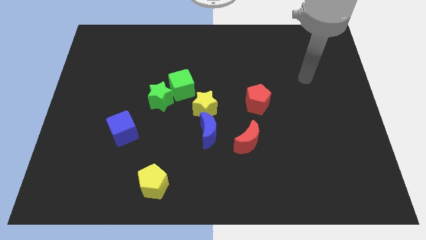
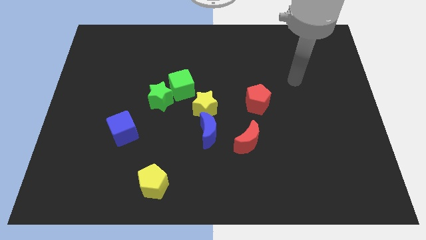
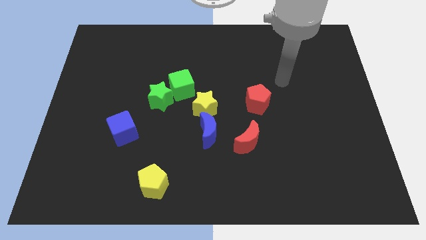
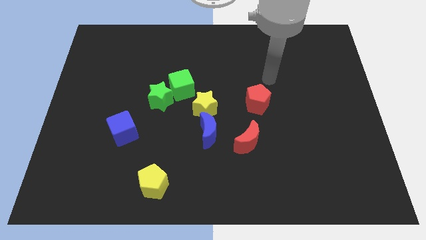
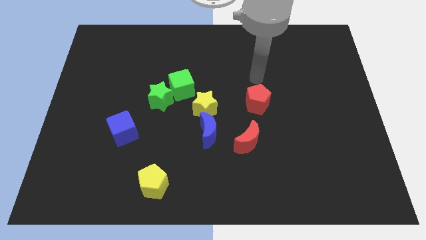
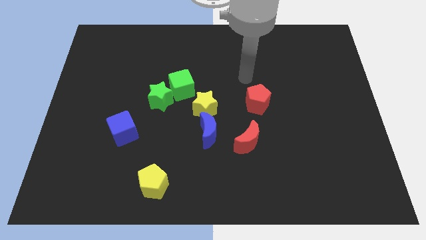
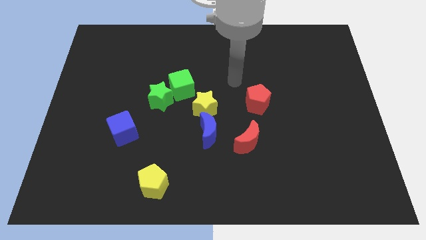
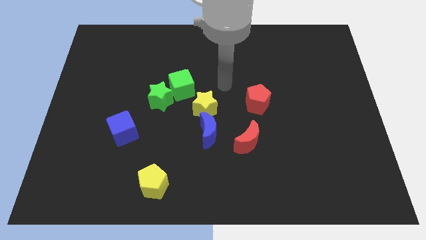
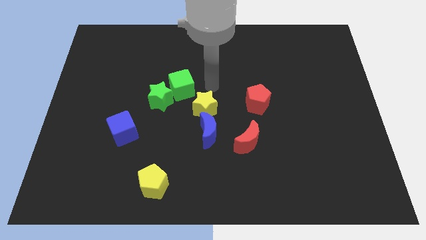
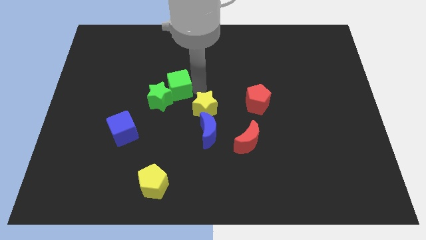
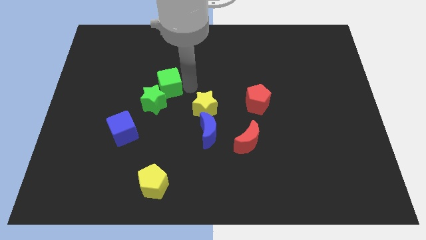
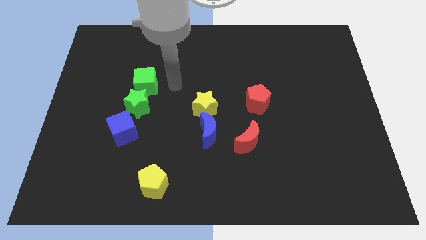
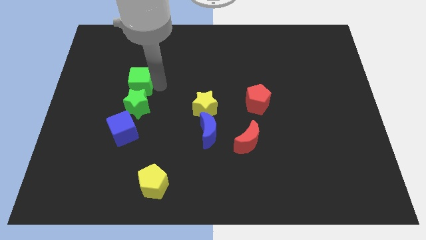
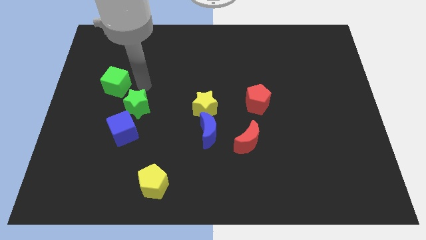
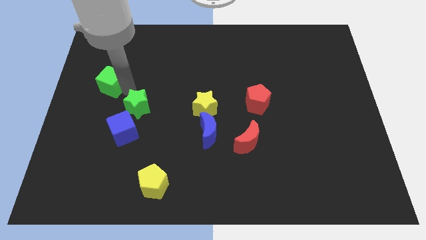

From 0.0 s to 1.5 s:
separate the green star from the green cube

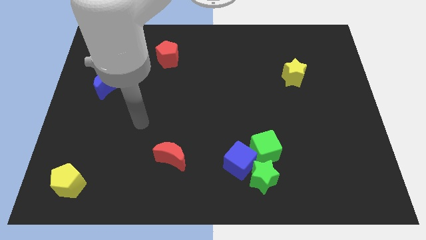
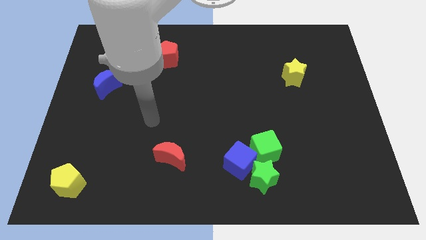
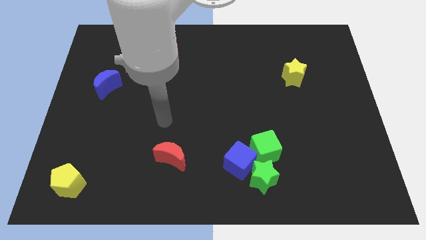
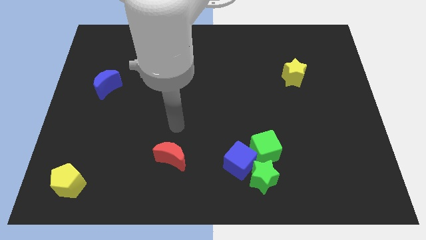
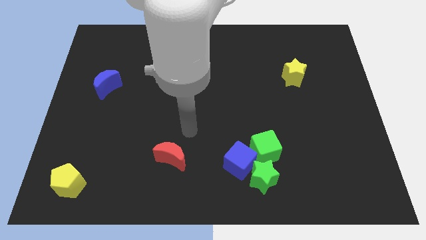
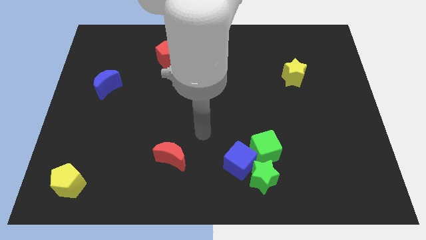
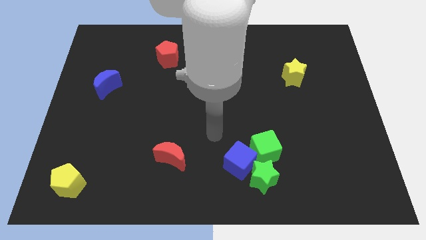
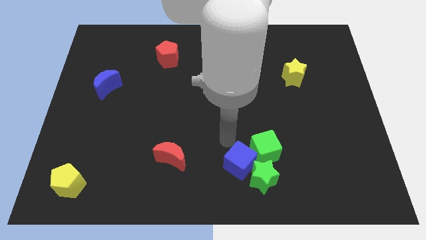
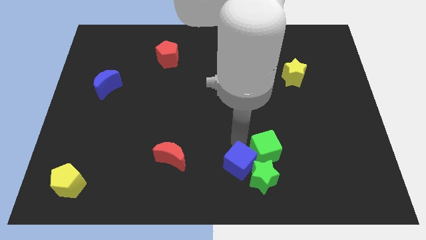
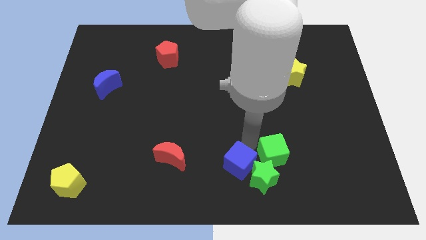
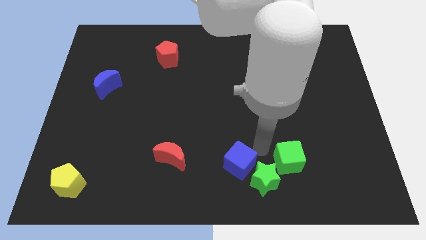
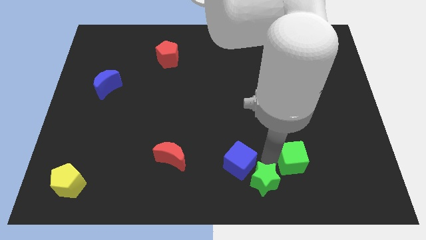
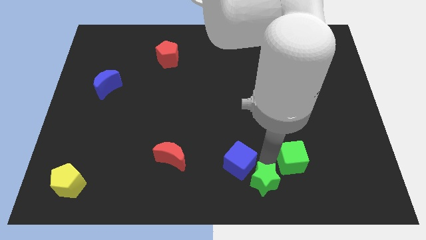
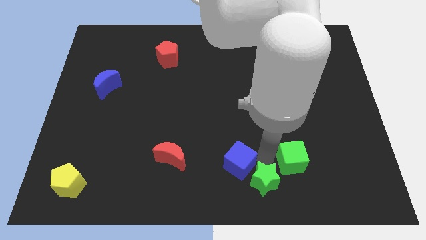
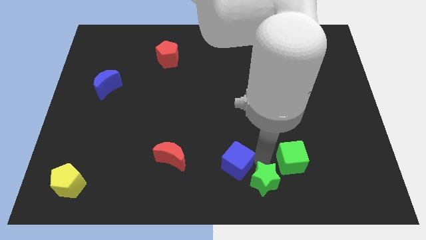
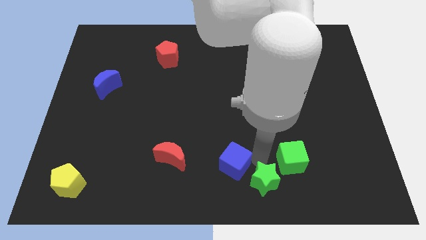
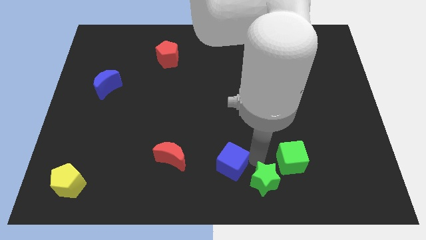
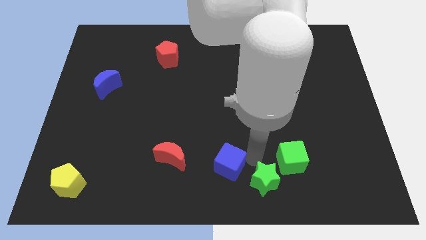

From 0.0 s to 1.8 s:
move the blue cube away from the green star and green cube

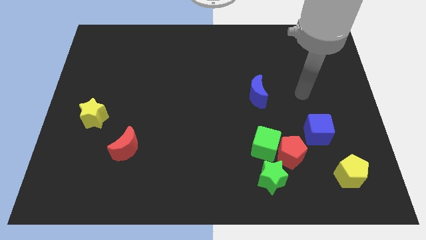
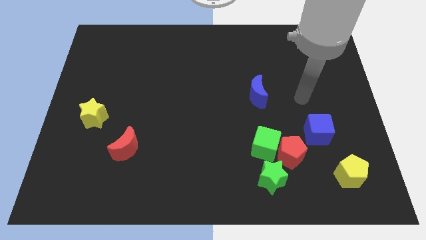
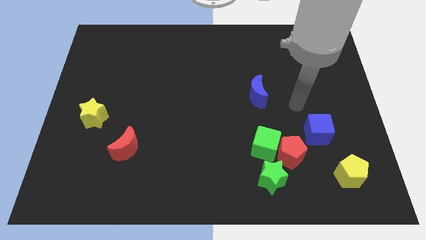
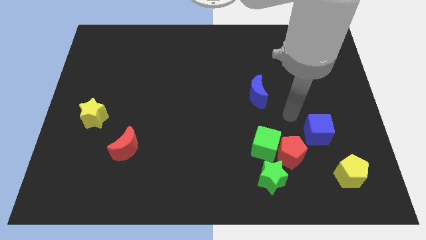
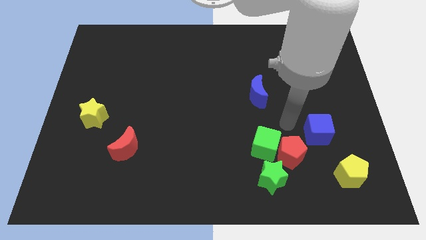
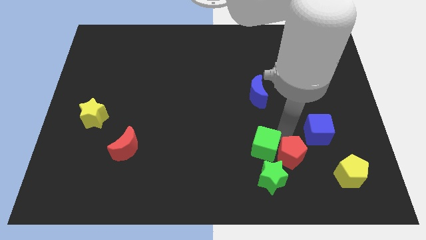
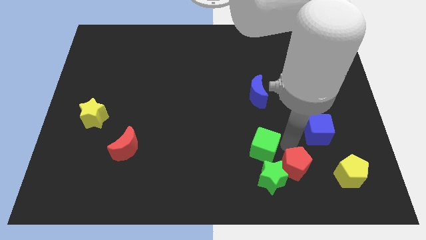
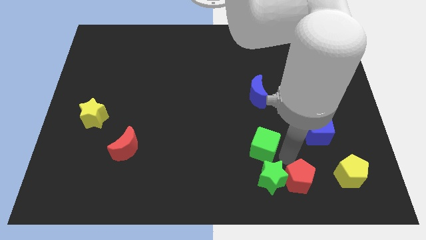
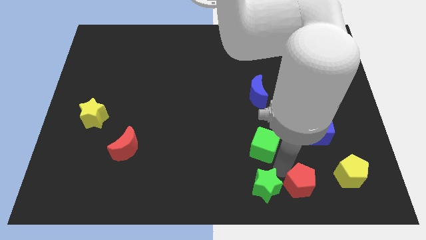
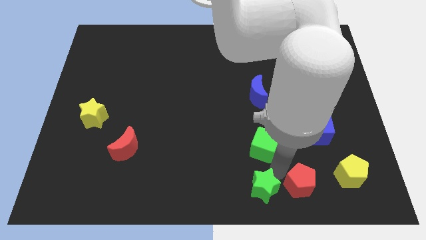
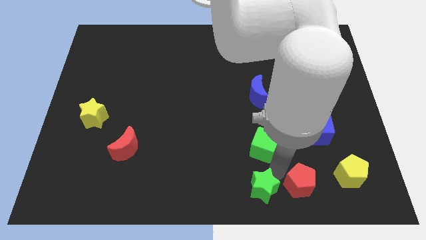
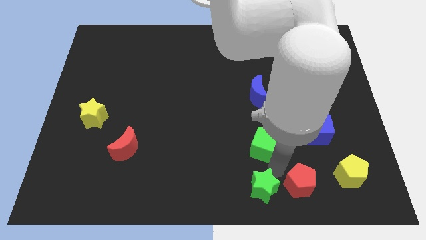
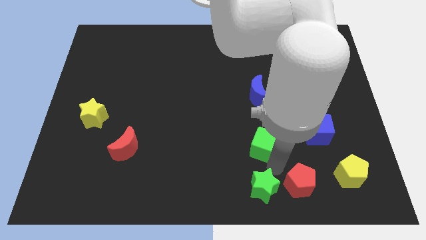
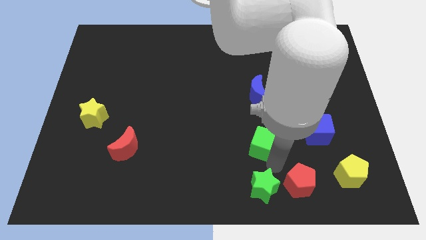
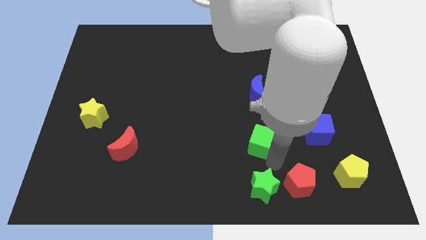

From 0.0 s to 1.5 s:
pull the green cube apart from the red pentagon and green star

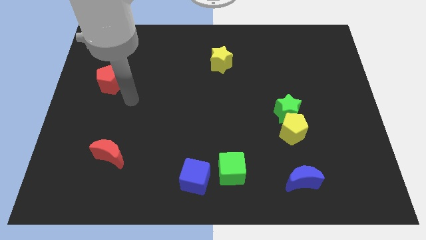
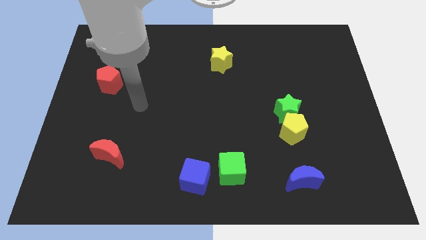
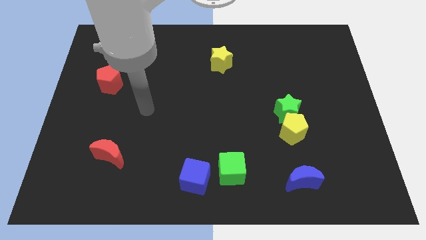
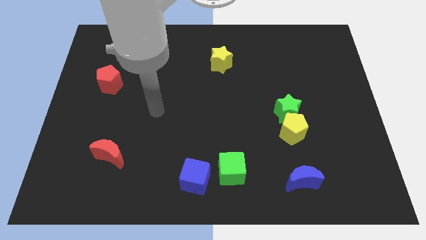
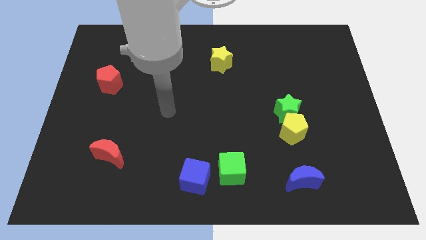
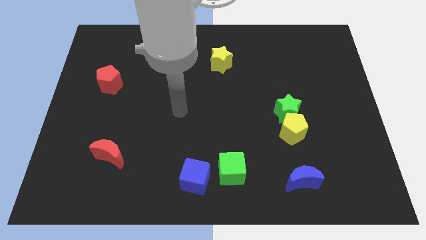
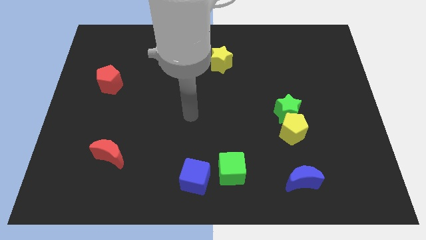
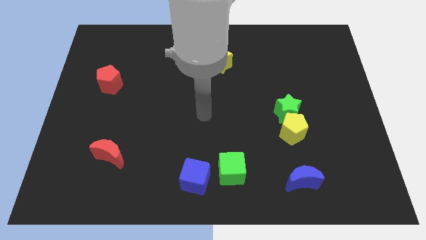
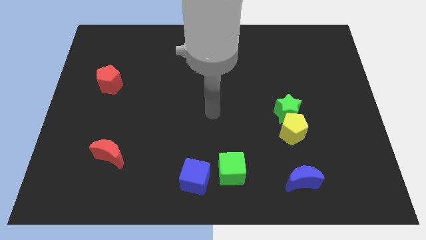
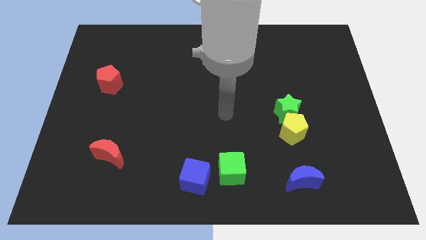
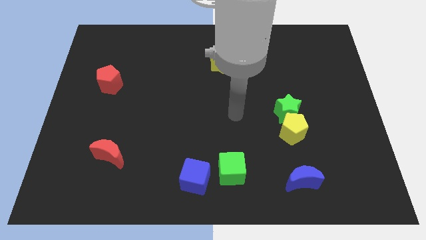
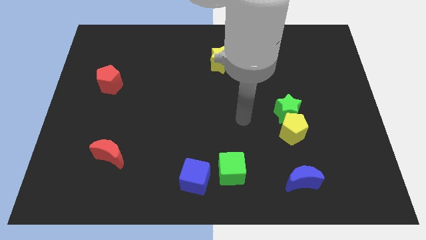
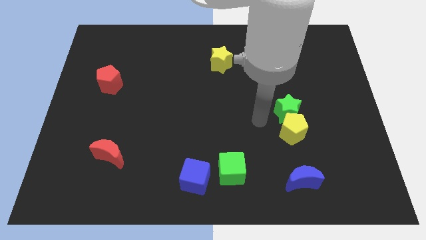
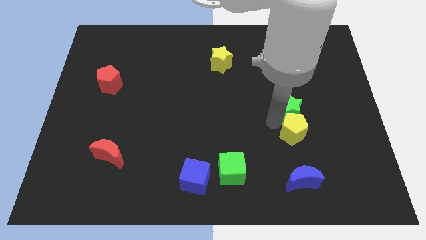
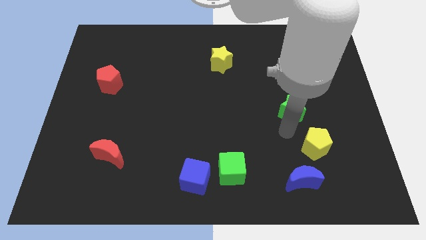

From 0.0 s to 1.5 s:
pull the green star apart from the yellow pentagon

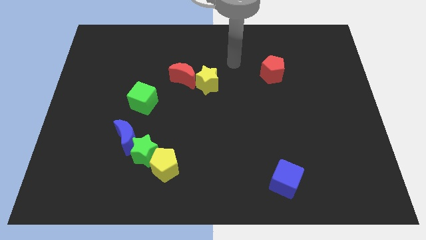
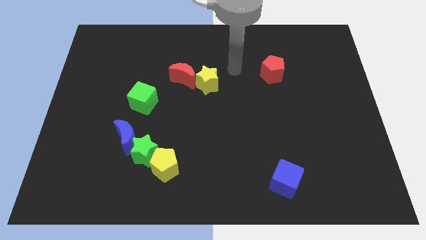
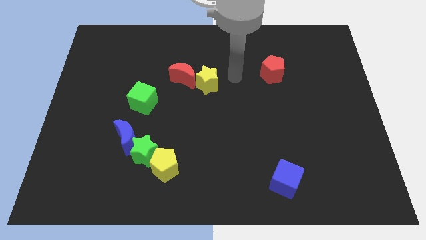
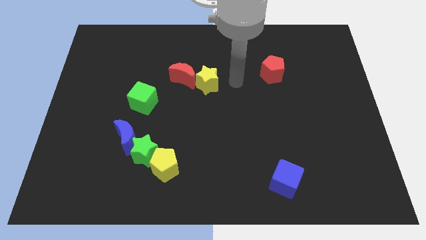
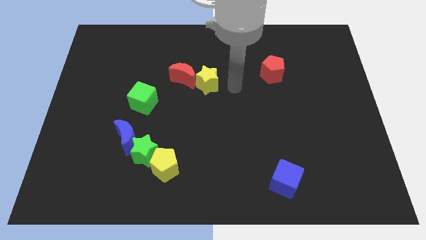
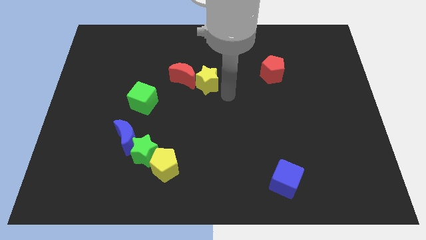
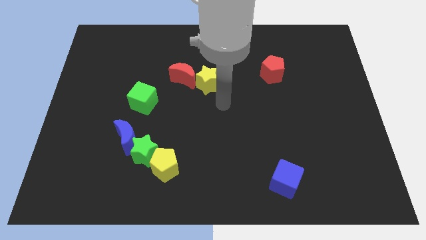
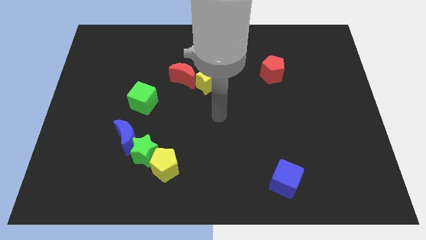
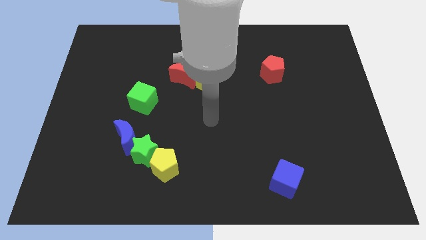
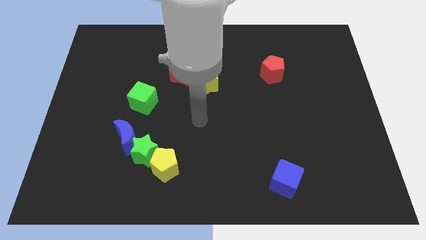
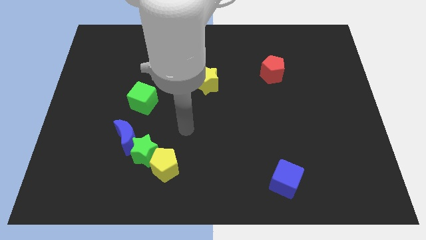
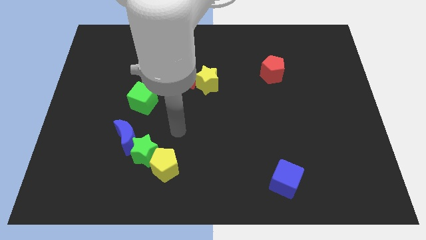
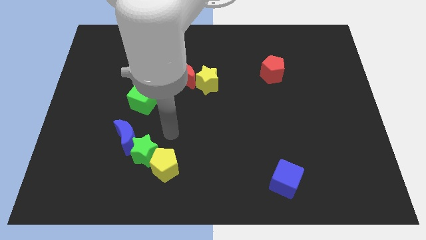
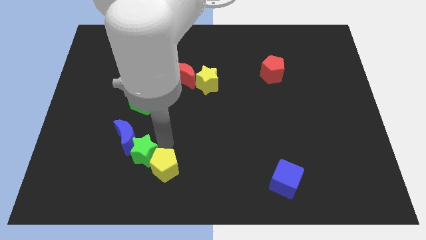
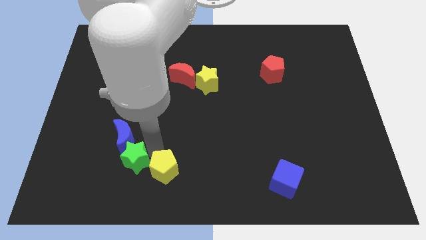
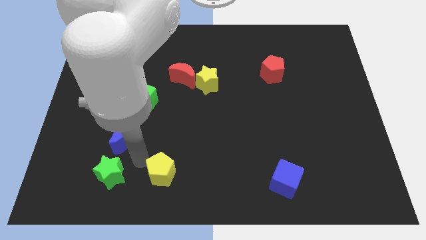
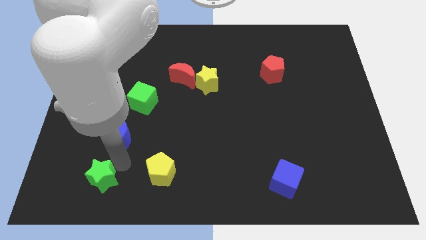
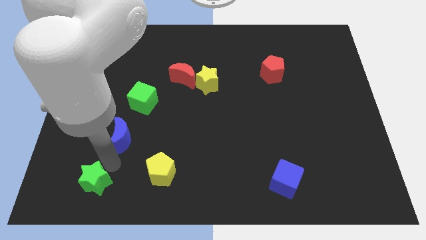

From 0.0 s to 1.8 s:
move the blue moon away from the green star

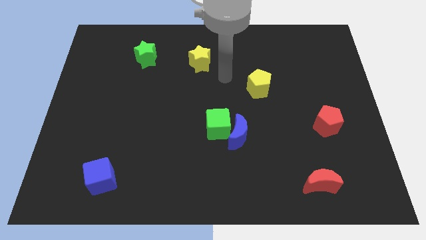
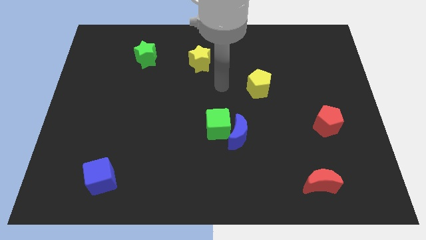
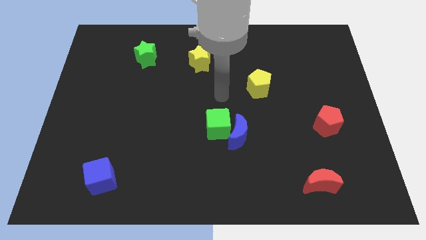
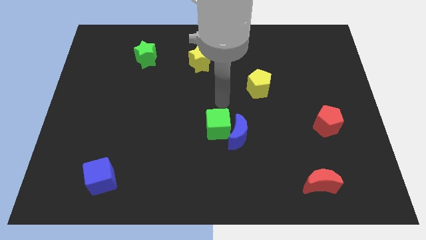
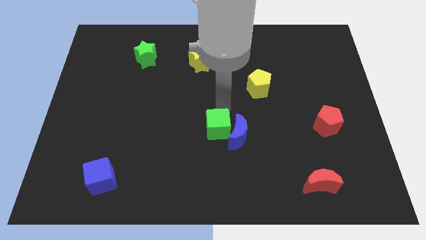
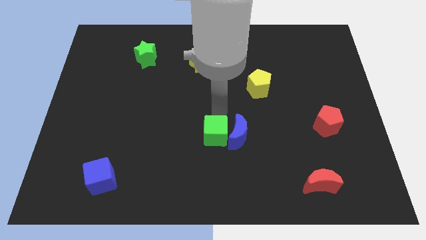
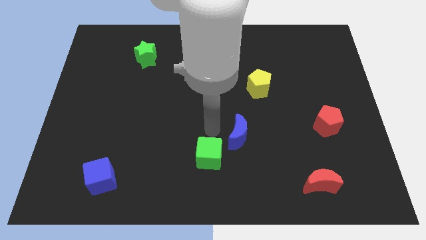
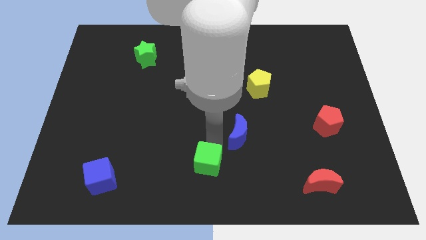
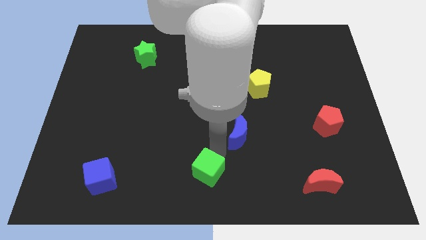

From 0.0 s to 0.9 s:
separate the blue moon from the green cube

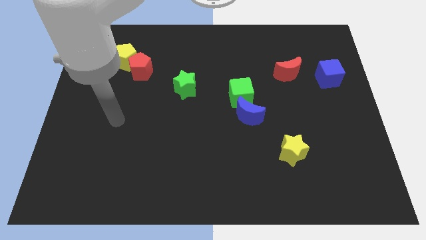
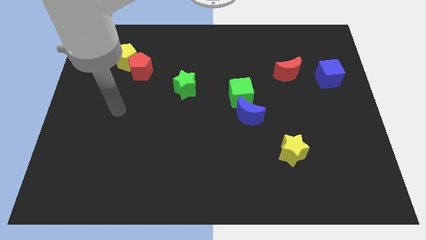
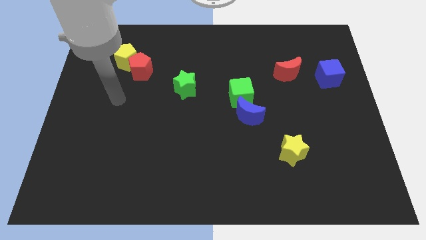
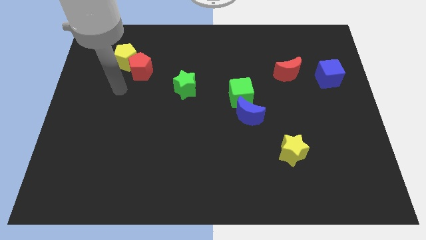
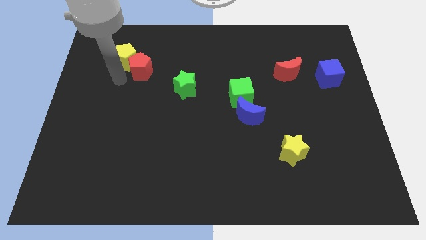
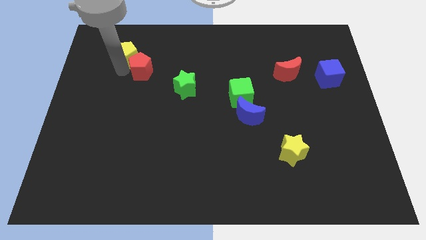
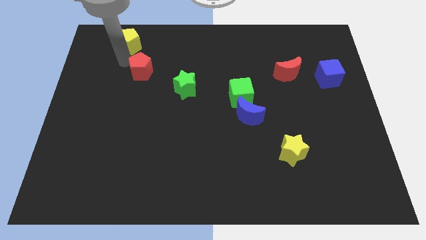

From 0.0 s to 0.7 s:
pull the red pentagon apart from the yellow pentagon
